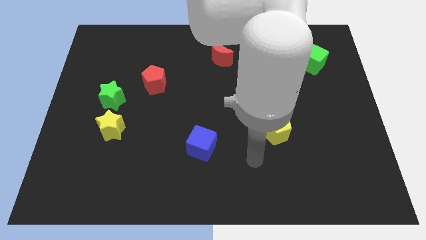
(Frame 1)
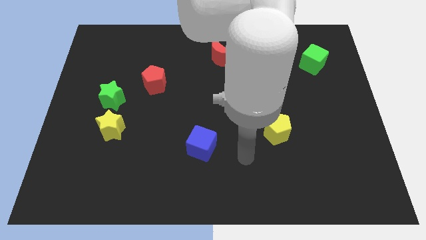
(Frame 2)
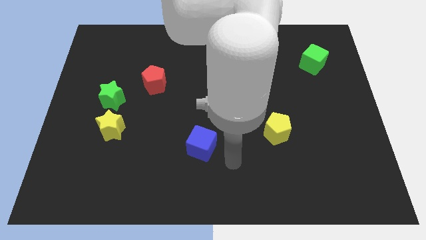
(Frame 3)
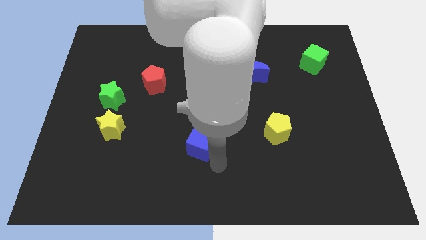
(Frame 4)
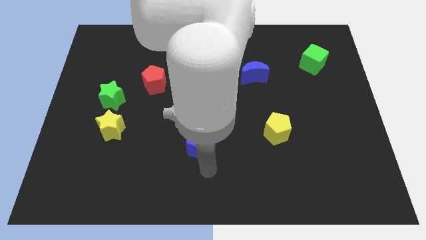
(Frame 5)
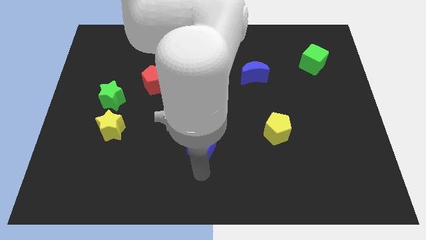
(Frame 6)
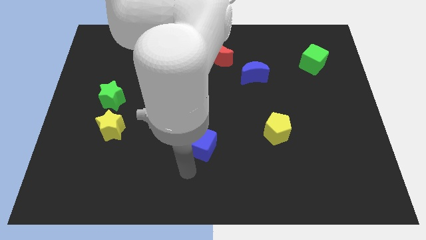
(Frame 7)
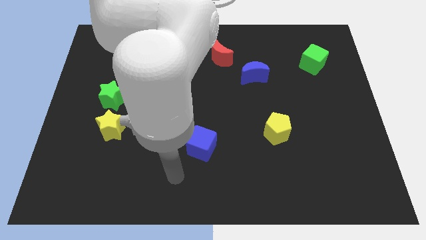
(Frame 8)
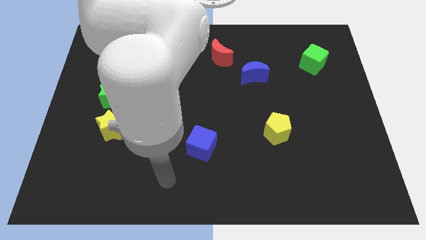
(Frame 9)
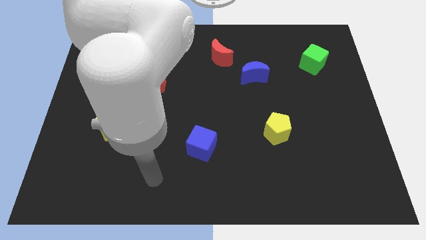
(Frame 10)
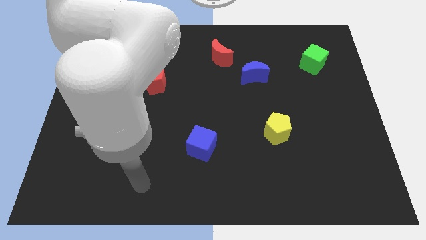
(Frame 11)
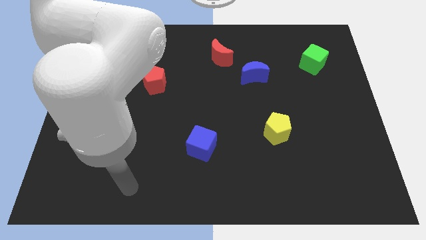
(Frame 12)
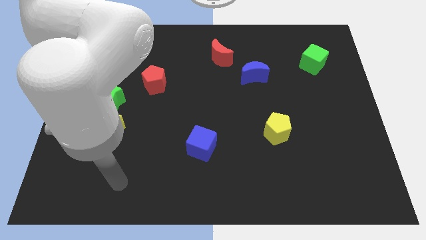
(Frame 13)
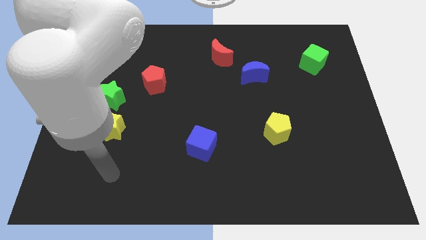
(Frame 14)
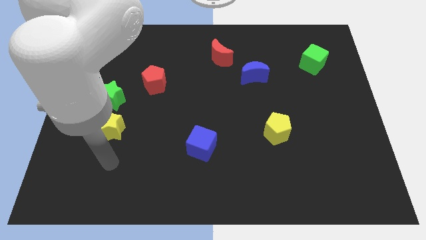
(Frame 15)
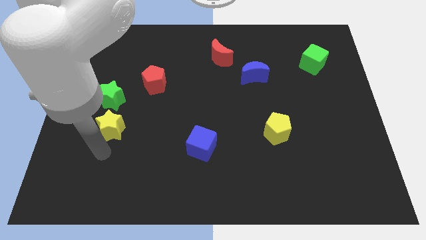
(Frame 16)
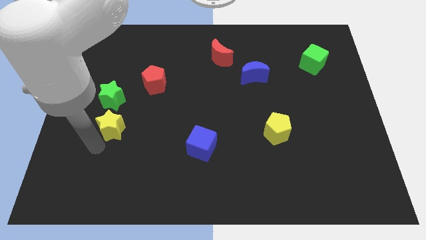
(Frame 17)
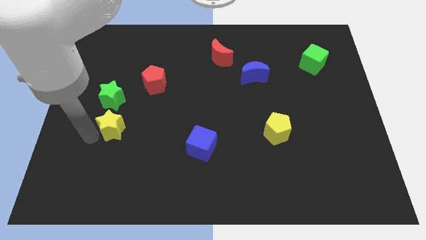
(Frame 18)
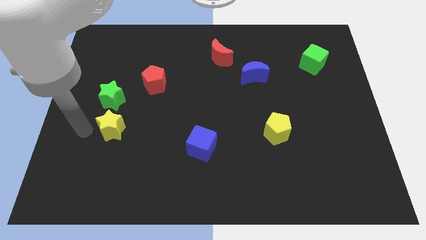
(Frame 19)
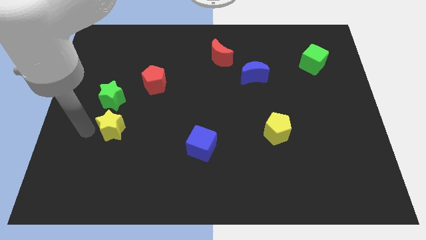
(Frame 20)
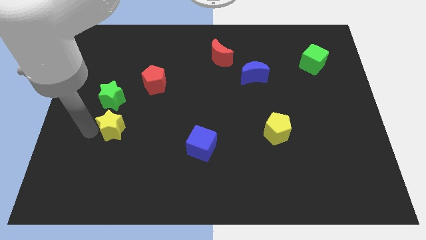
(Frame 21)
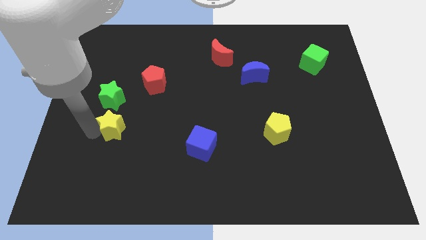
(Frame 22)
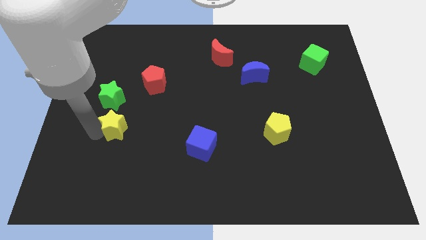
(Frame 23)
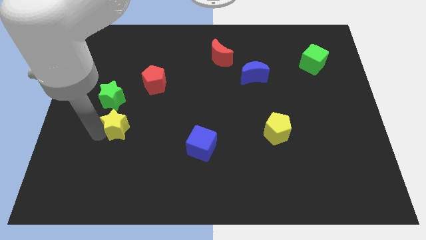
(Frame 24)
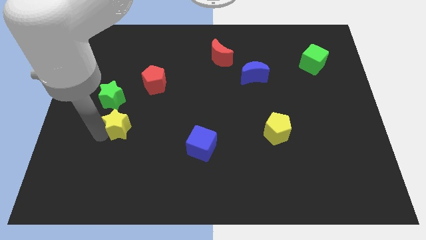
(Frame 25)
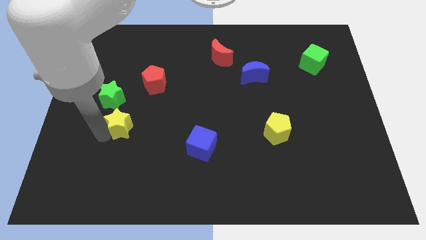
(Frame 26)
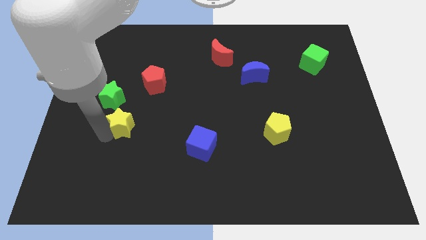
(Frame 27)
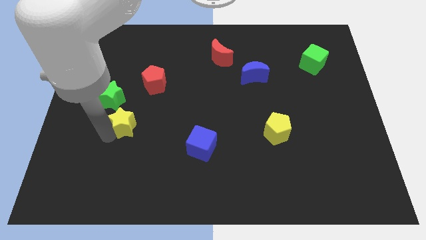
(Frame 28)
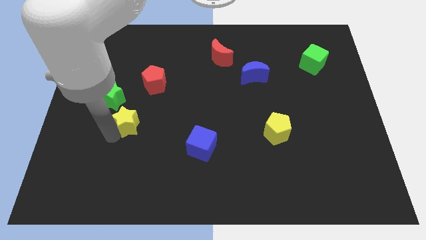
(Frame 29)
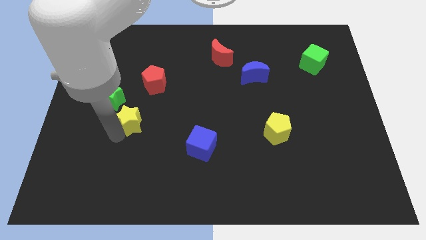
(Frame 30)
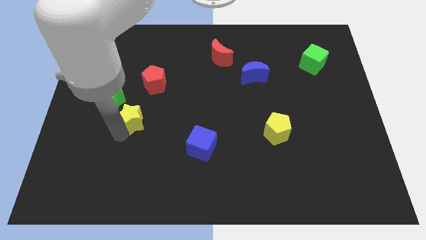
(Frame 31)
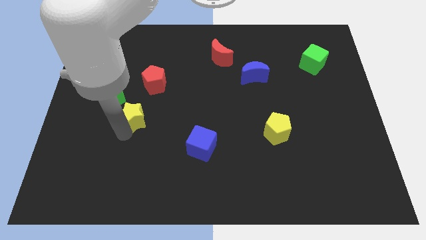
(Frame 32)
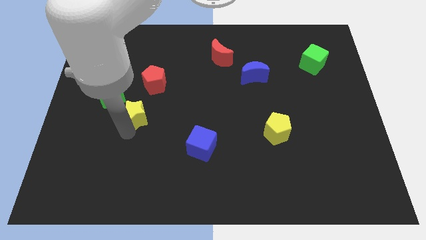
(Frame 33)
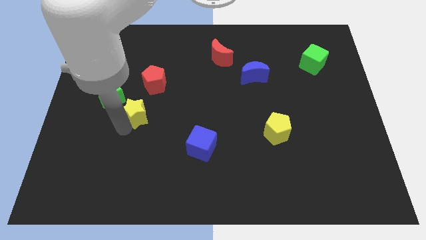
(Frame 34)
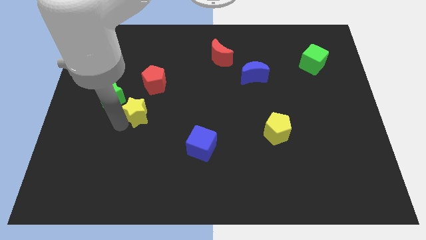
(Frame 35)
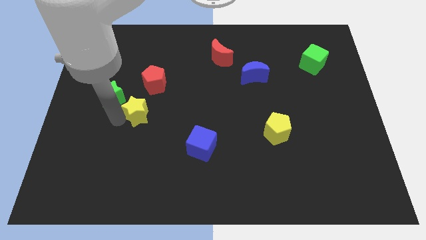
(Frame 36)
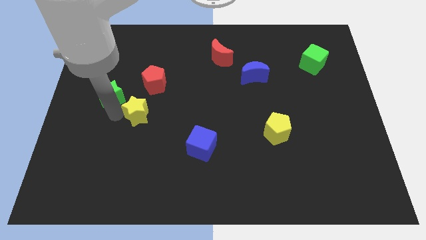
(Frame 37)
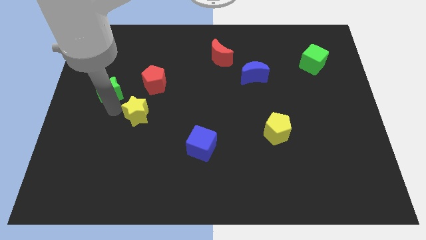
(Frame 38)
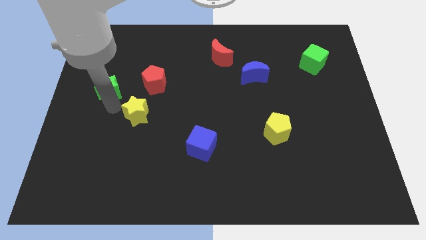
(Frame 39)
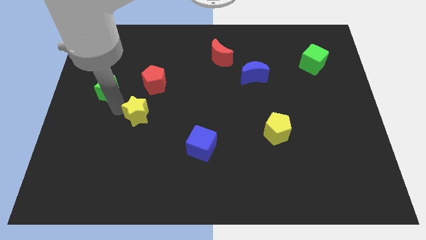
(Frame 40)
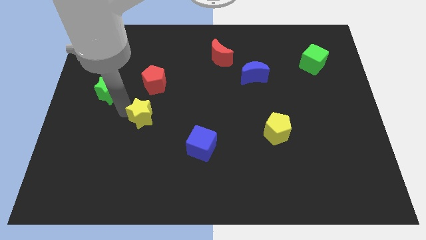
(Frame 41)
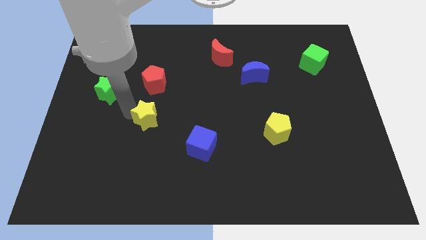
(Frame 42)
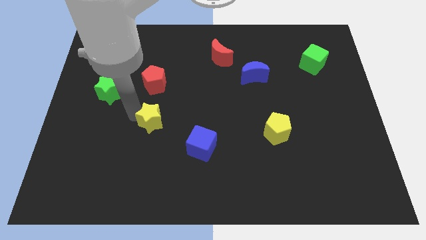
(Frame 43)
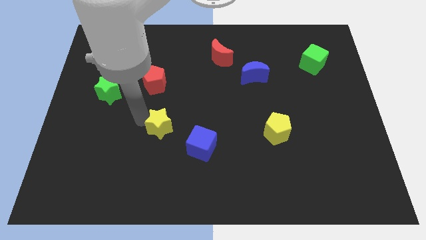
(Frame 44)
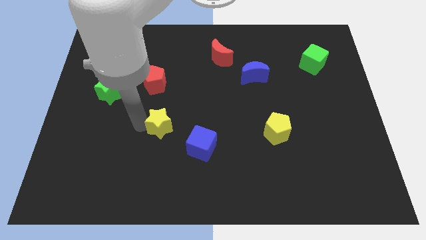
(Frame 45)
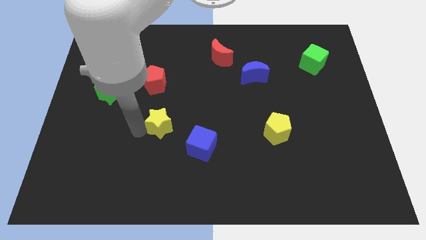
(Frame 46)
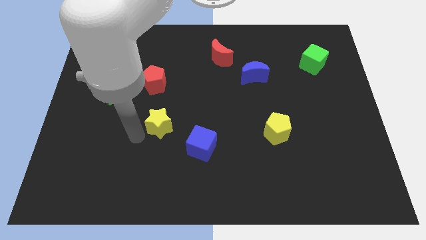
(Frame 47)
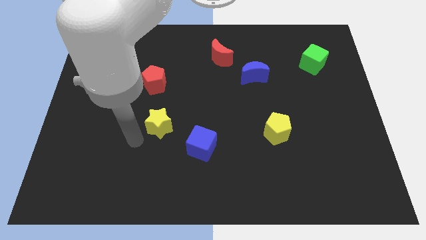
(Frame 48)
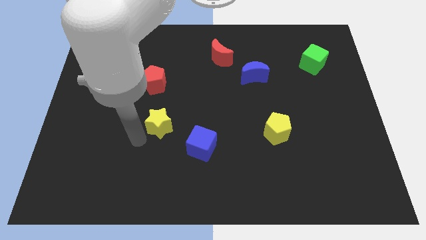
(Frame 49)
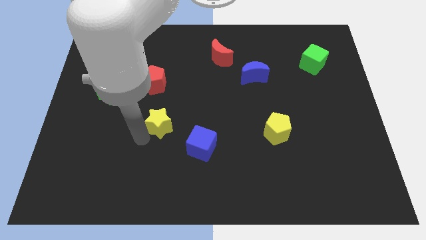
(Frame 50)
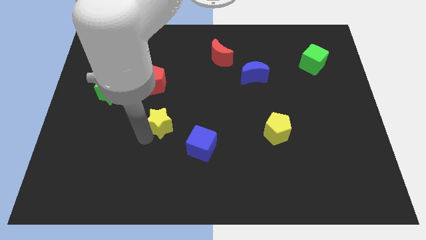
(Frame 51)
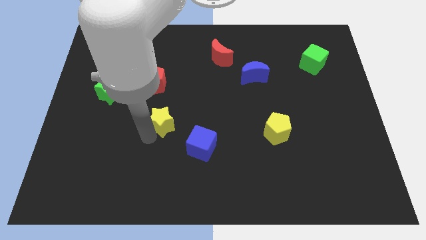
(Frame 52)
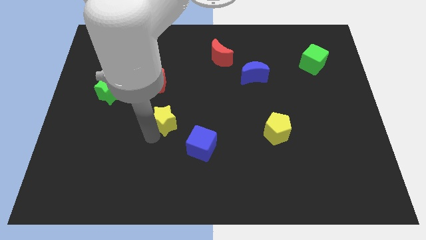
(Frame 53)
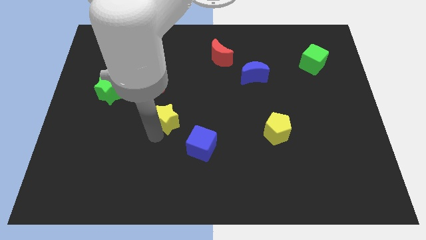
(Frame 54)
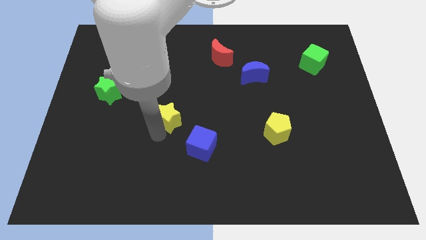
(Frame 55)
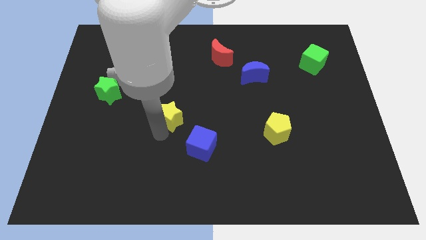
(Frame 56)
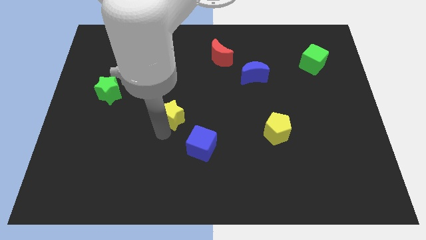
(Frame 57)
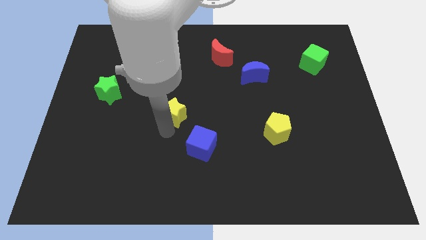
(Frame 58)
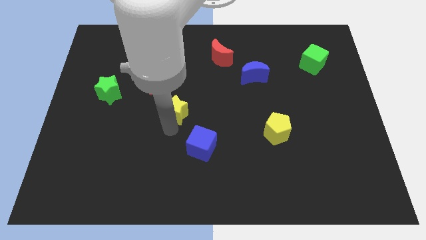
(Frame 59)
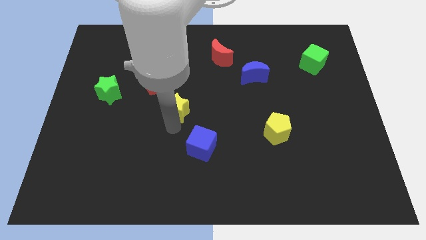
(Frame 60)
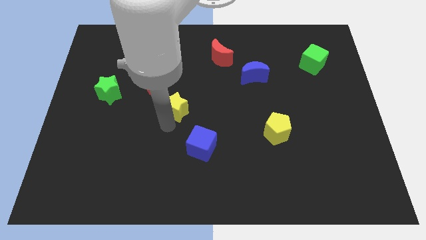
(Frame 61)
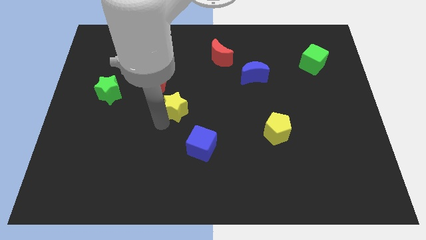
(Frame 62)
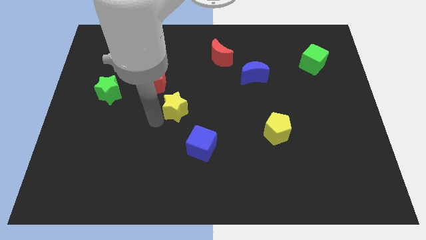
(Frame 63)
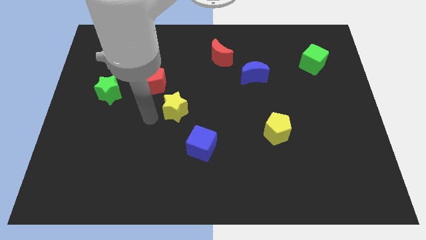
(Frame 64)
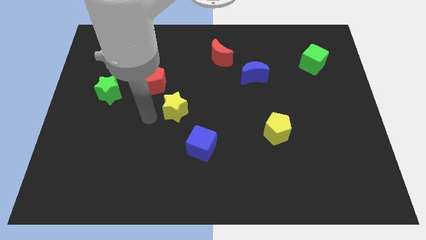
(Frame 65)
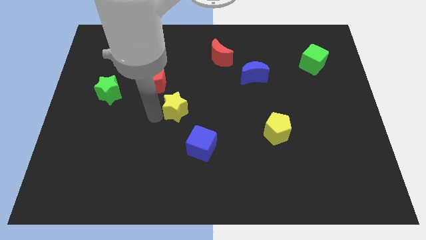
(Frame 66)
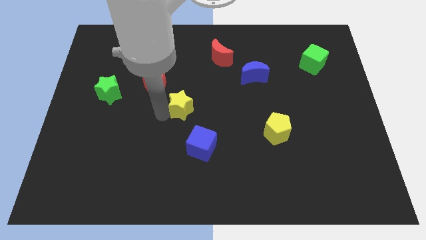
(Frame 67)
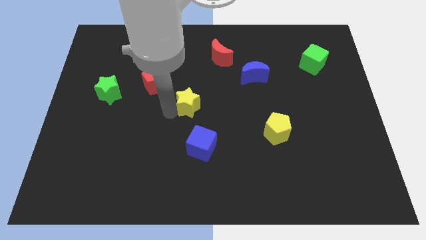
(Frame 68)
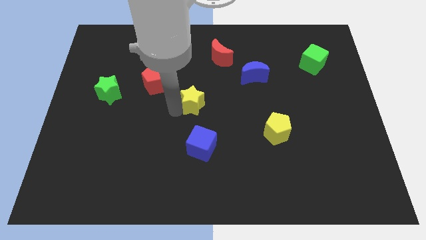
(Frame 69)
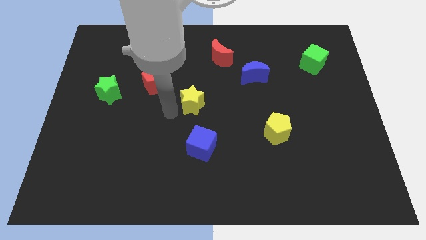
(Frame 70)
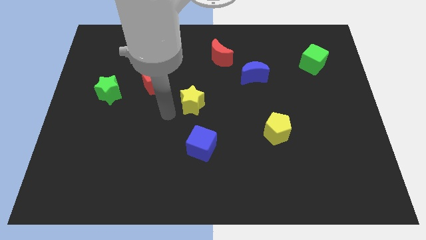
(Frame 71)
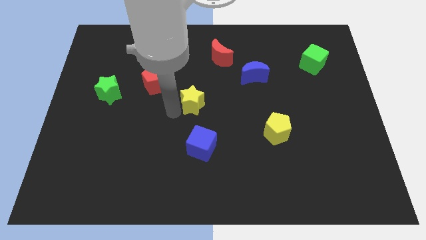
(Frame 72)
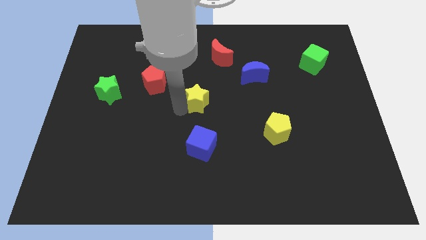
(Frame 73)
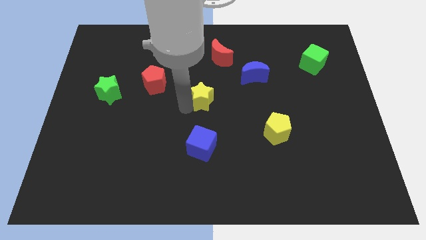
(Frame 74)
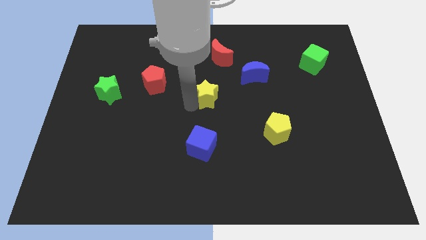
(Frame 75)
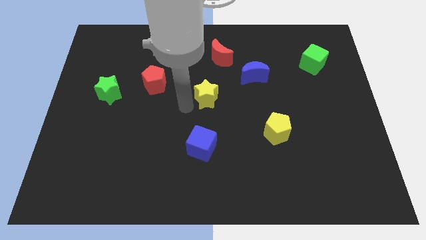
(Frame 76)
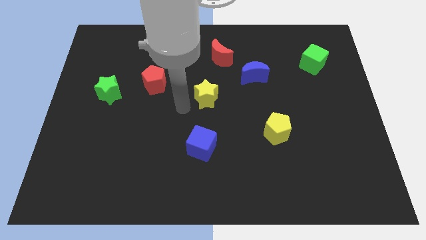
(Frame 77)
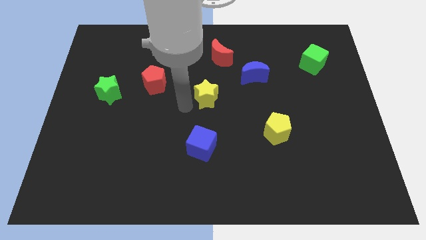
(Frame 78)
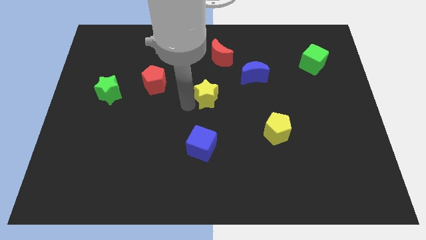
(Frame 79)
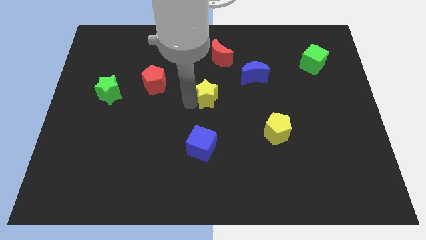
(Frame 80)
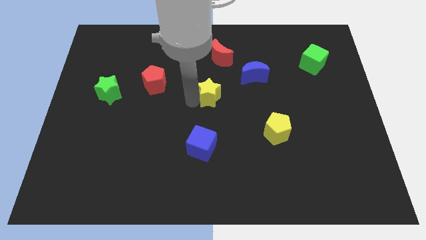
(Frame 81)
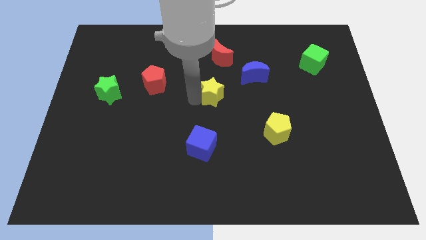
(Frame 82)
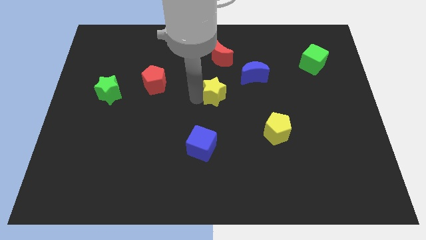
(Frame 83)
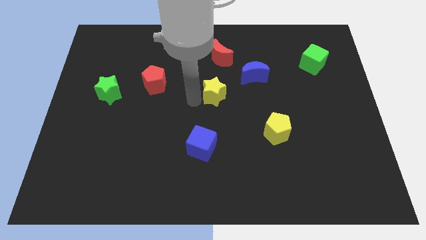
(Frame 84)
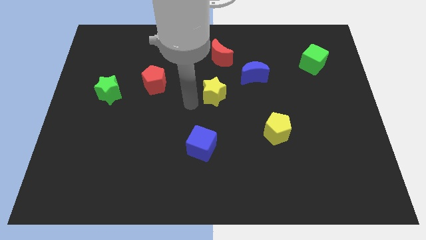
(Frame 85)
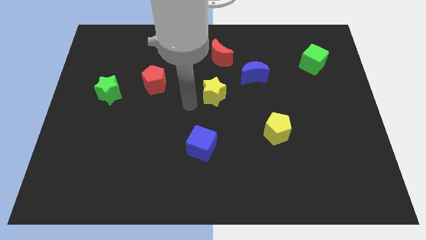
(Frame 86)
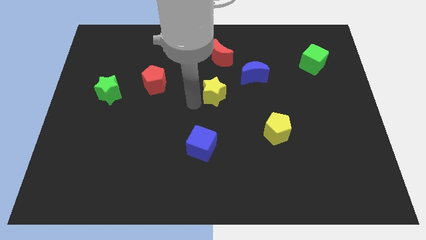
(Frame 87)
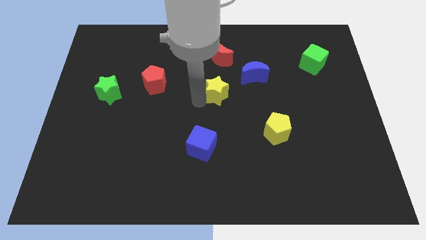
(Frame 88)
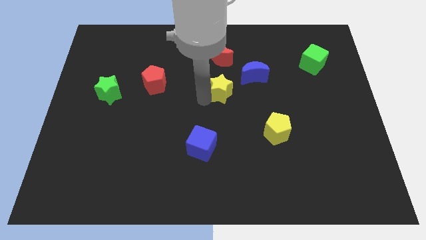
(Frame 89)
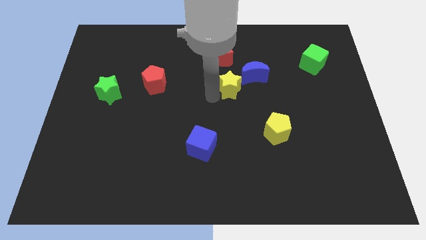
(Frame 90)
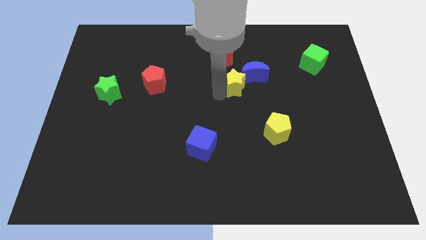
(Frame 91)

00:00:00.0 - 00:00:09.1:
put the yellow star close to the blue moon
